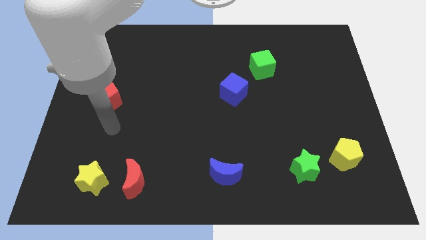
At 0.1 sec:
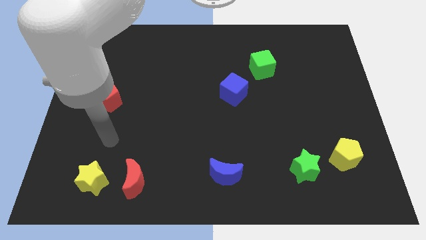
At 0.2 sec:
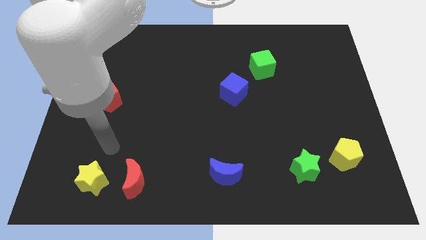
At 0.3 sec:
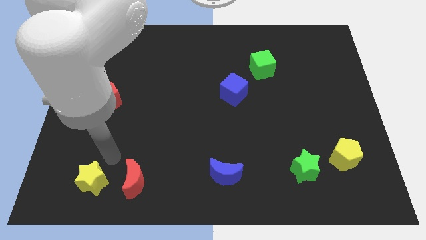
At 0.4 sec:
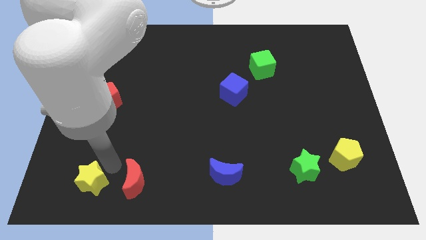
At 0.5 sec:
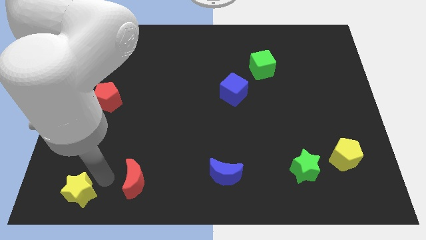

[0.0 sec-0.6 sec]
separate the red moon from the yellow star

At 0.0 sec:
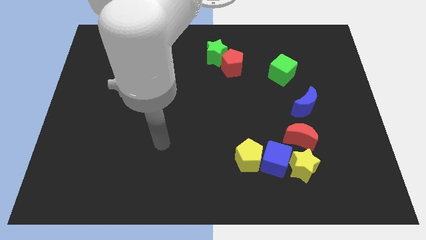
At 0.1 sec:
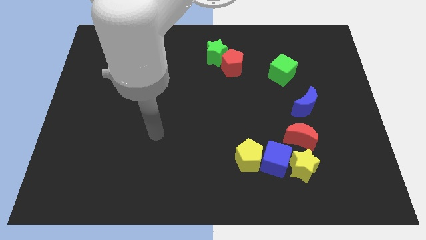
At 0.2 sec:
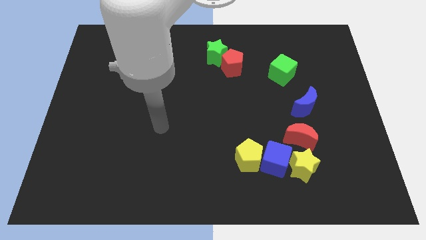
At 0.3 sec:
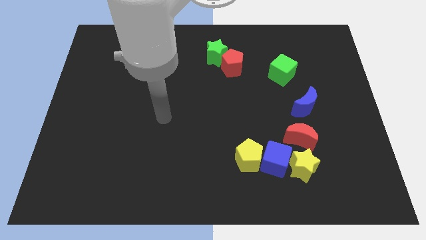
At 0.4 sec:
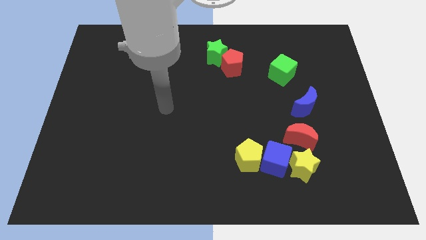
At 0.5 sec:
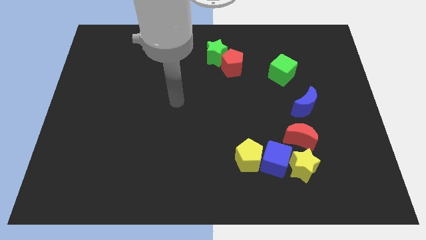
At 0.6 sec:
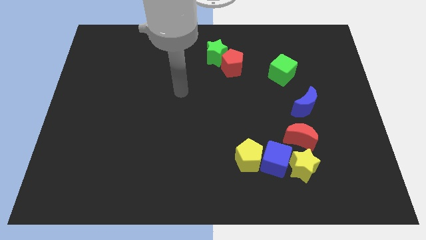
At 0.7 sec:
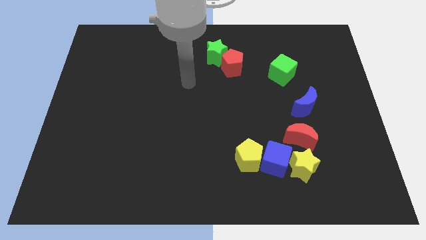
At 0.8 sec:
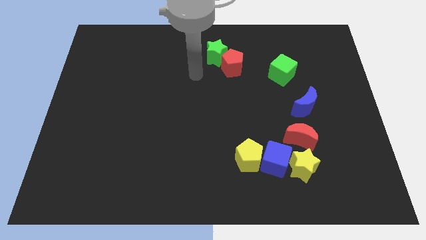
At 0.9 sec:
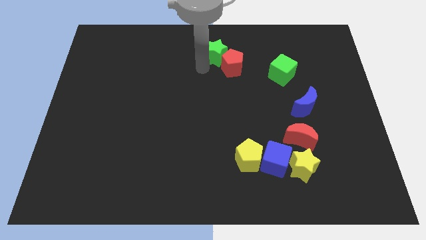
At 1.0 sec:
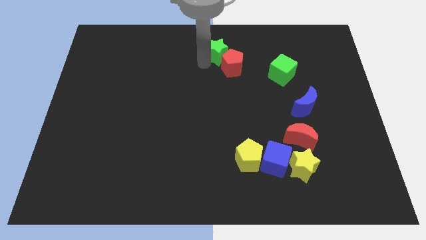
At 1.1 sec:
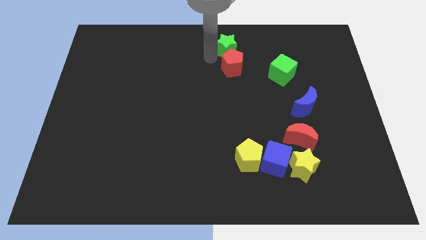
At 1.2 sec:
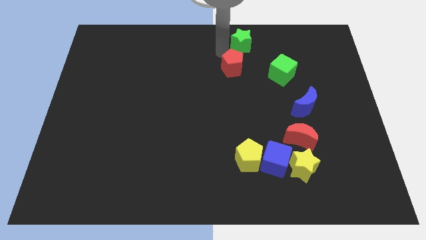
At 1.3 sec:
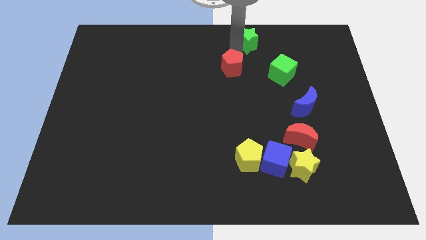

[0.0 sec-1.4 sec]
separate the red pentagon from the green star

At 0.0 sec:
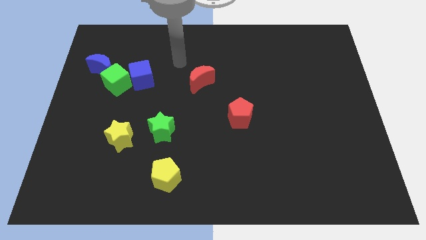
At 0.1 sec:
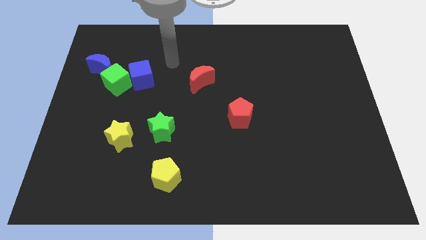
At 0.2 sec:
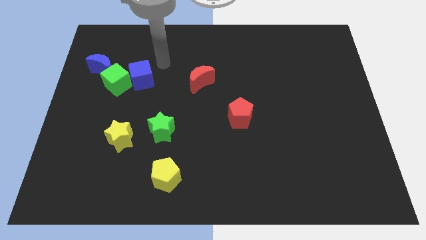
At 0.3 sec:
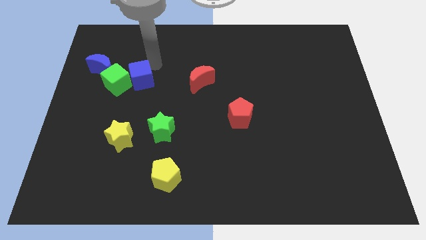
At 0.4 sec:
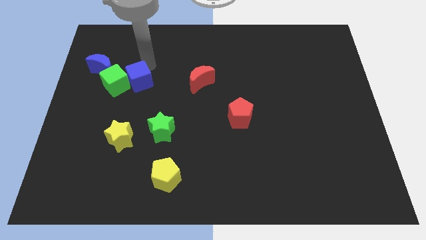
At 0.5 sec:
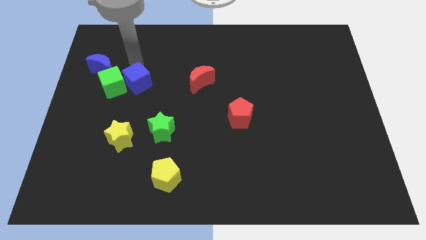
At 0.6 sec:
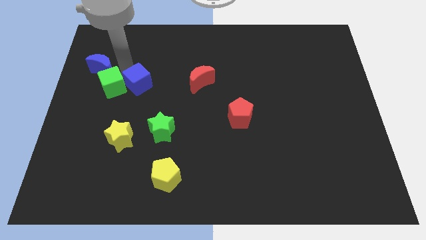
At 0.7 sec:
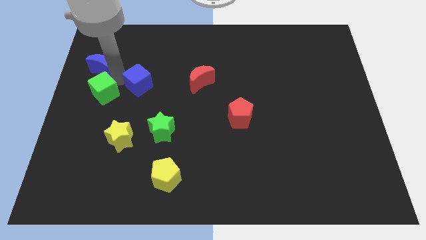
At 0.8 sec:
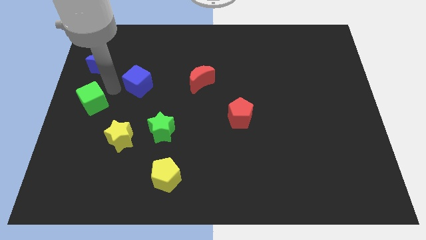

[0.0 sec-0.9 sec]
separate the blue cube from the green cube

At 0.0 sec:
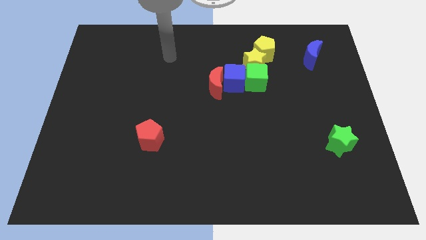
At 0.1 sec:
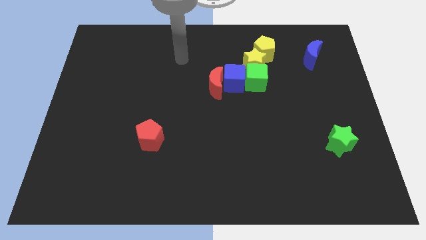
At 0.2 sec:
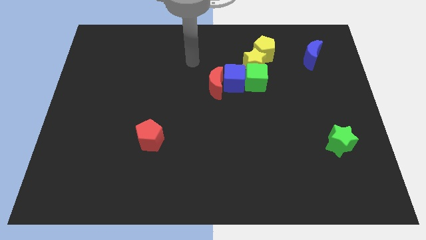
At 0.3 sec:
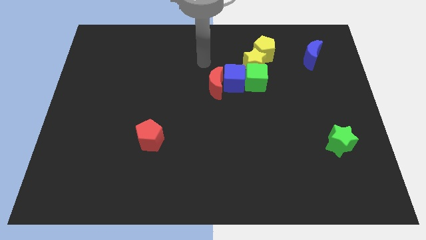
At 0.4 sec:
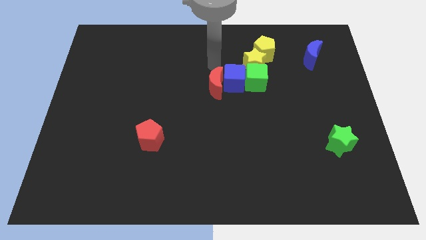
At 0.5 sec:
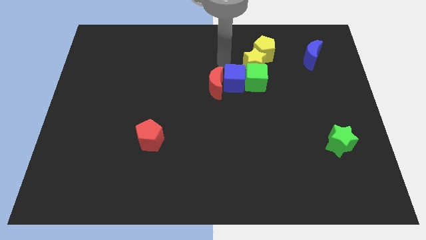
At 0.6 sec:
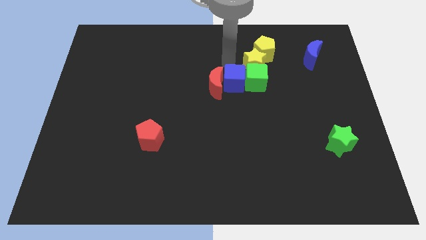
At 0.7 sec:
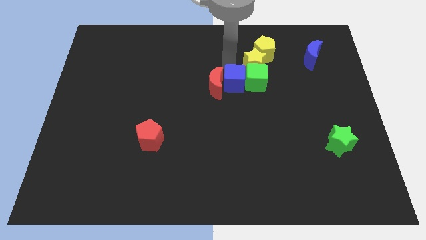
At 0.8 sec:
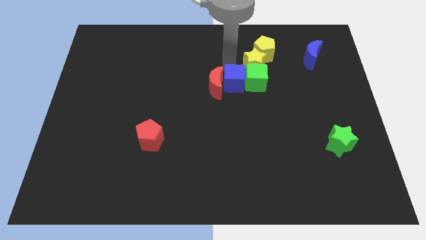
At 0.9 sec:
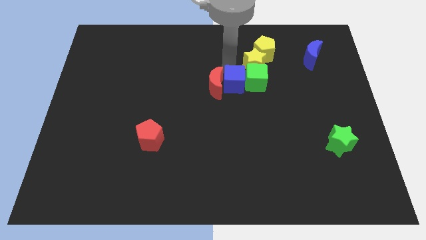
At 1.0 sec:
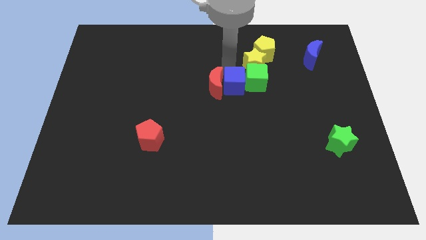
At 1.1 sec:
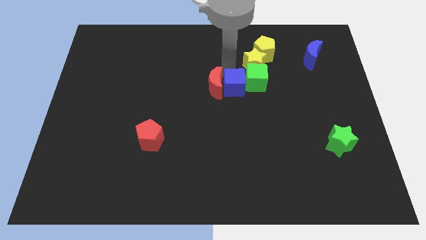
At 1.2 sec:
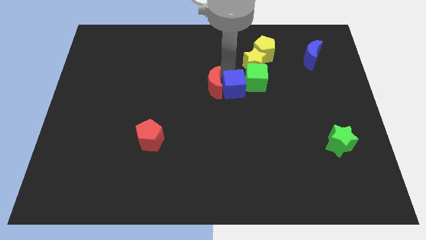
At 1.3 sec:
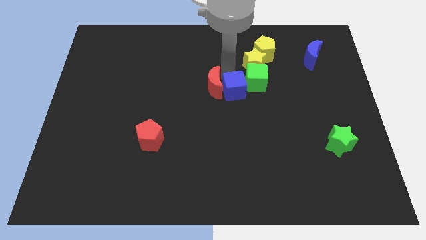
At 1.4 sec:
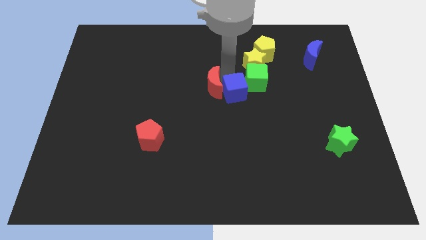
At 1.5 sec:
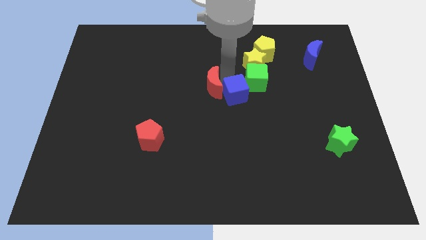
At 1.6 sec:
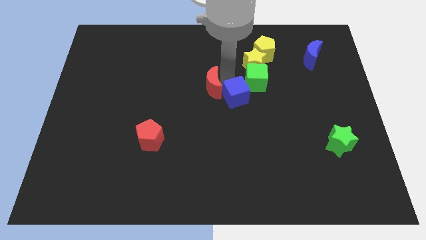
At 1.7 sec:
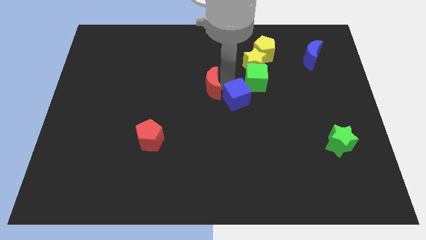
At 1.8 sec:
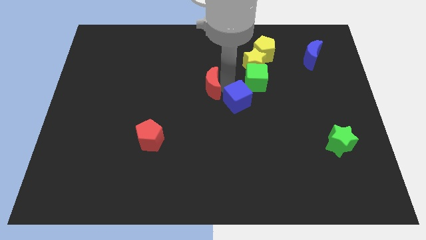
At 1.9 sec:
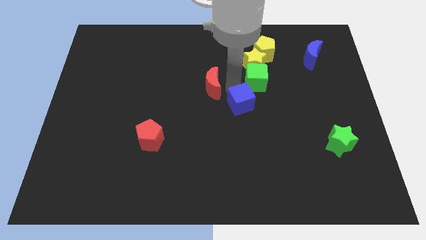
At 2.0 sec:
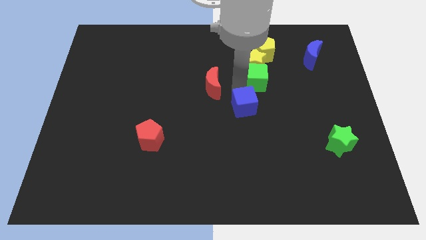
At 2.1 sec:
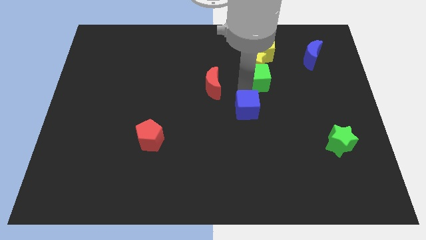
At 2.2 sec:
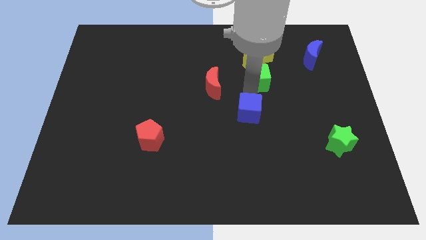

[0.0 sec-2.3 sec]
move the blue cube away from the group of blocks

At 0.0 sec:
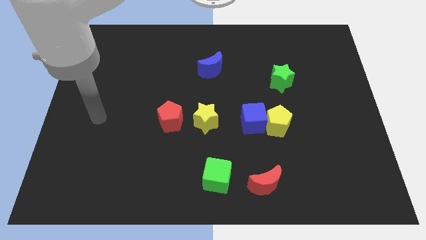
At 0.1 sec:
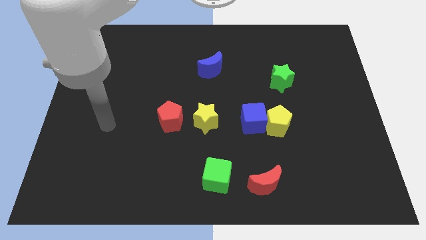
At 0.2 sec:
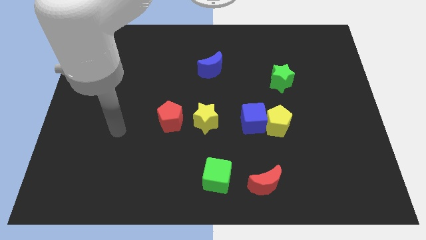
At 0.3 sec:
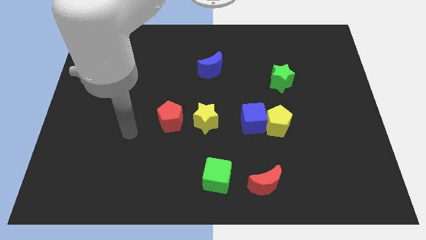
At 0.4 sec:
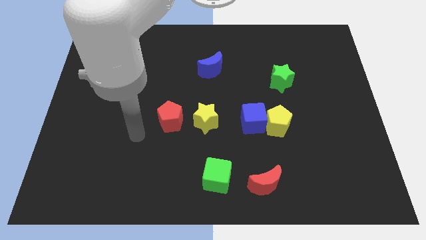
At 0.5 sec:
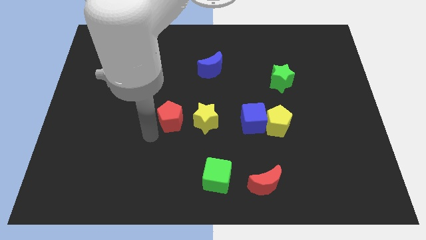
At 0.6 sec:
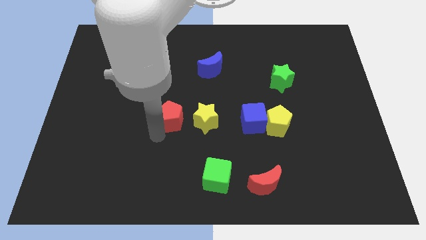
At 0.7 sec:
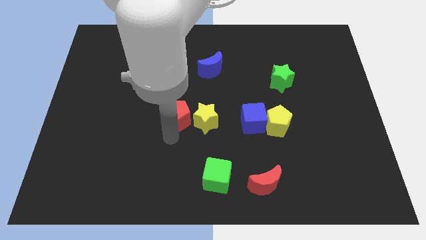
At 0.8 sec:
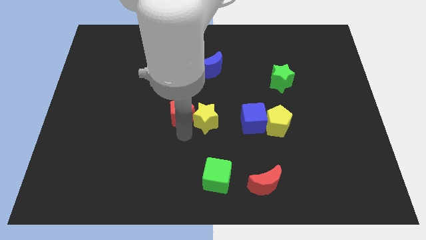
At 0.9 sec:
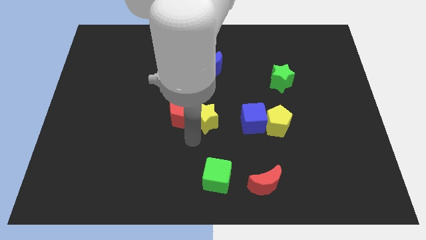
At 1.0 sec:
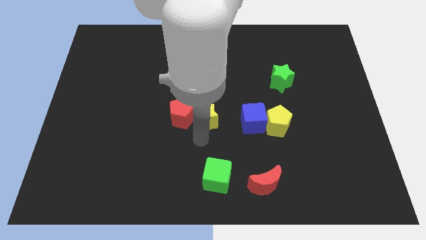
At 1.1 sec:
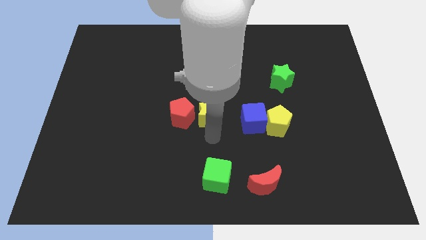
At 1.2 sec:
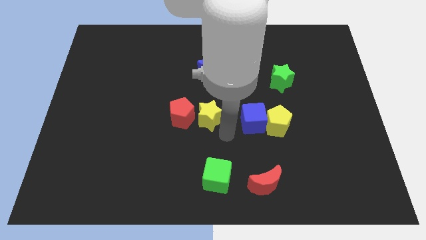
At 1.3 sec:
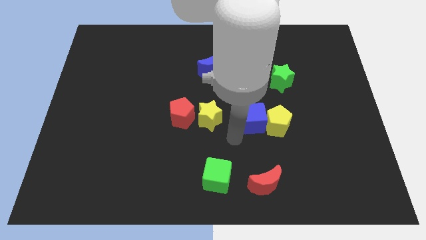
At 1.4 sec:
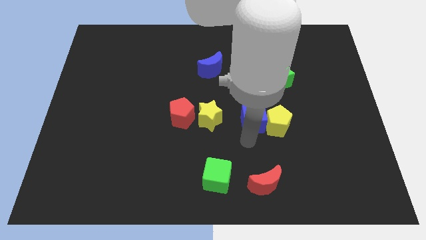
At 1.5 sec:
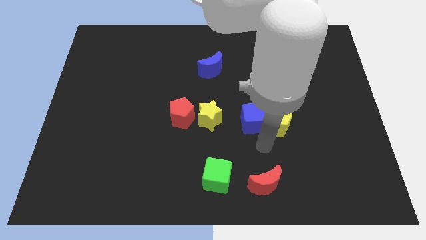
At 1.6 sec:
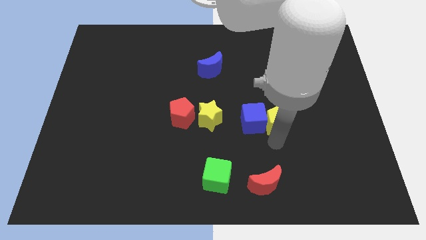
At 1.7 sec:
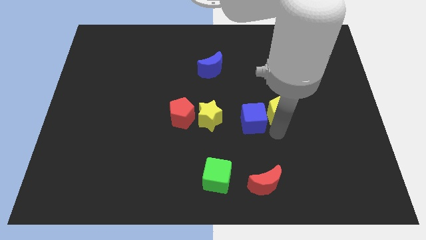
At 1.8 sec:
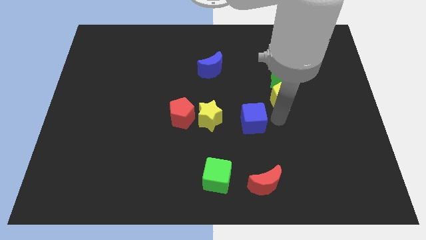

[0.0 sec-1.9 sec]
separate the blue cube from the yellow pentagon

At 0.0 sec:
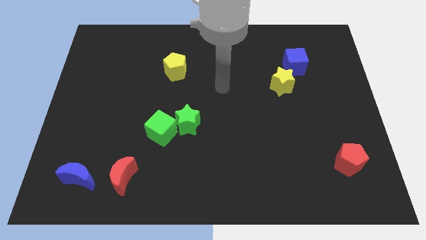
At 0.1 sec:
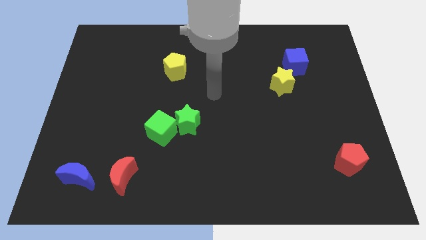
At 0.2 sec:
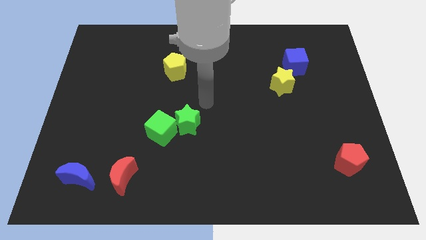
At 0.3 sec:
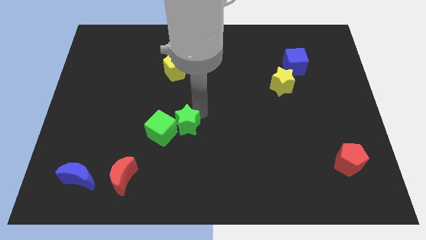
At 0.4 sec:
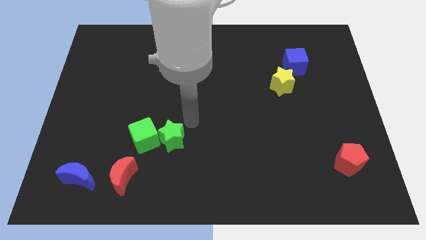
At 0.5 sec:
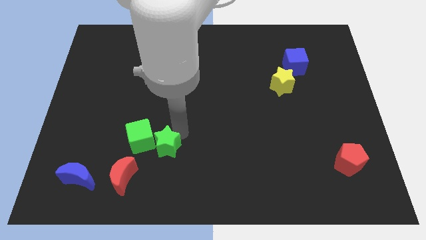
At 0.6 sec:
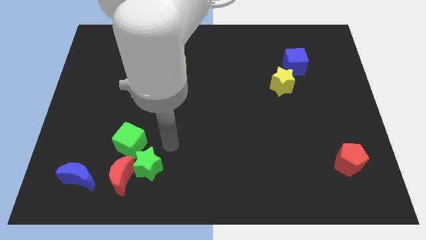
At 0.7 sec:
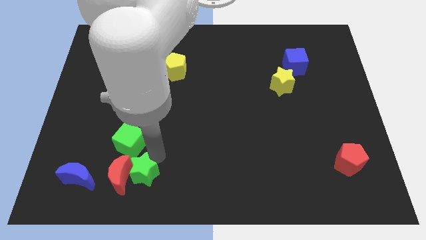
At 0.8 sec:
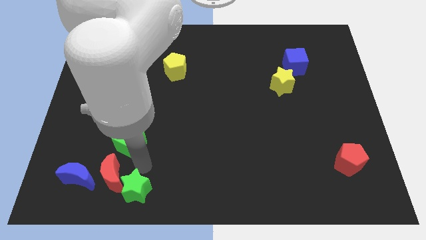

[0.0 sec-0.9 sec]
move the green cube away from the green star

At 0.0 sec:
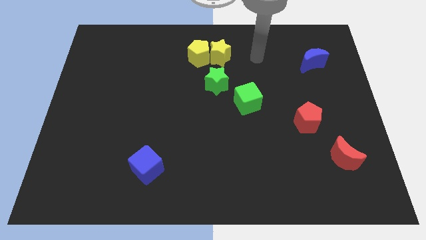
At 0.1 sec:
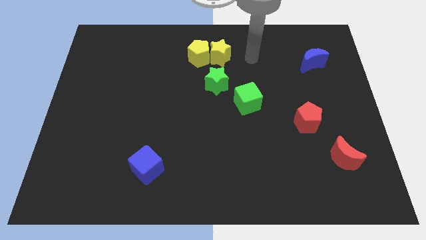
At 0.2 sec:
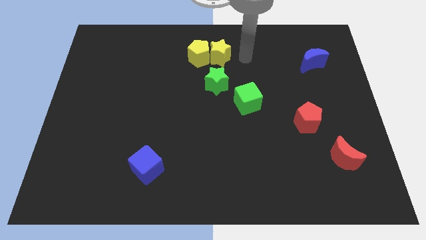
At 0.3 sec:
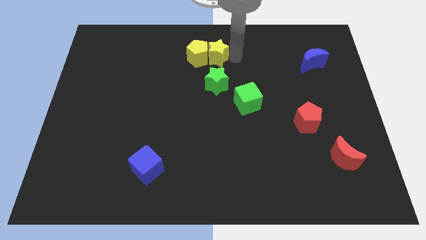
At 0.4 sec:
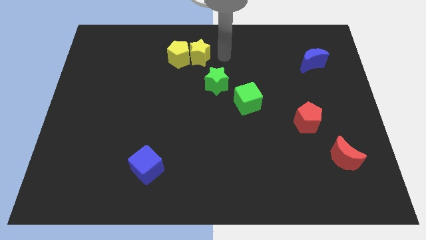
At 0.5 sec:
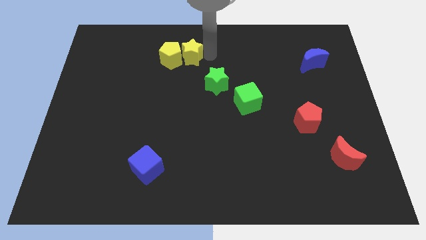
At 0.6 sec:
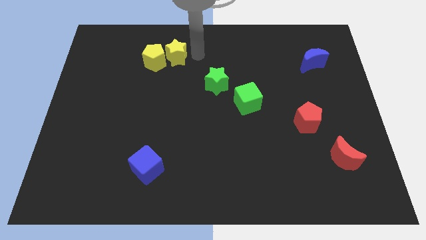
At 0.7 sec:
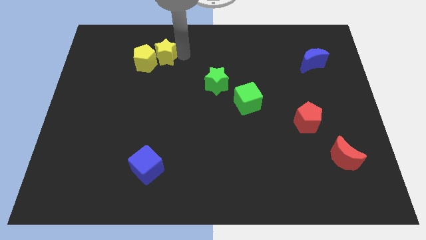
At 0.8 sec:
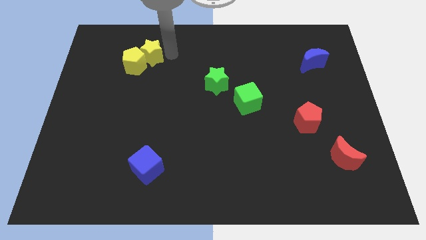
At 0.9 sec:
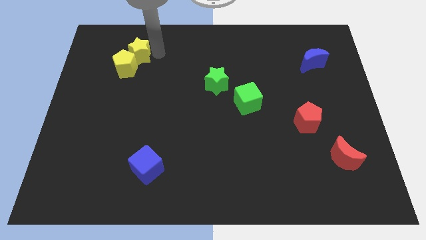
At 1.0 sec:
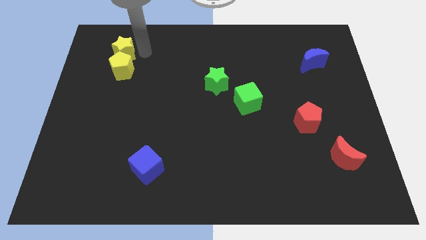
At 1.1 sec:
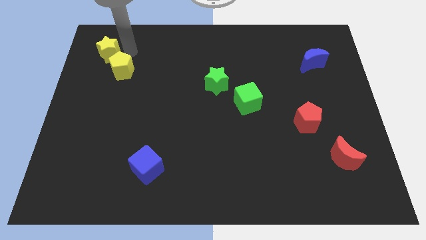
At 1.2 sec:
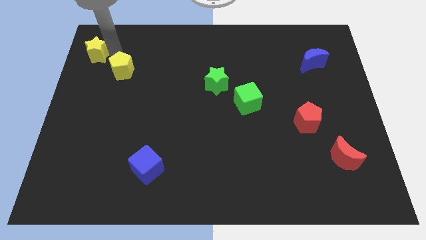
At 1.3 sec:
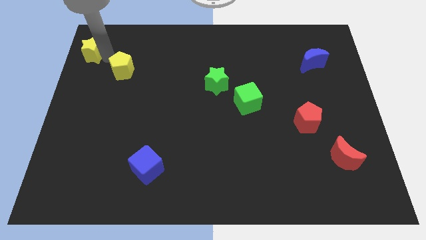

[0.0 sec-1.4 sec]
pull the yellow pentagon apart from the yellow star
